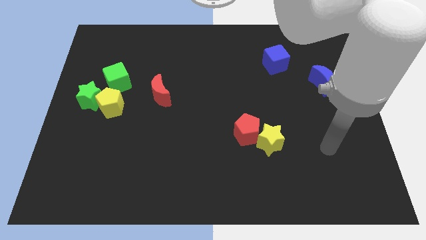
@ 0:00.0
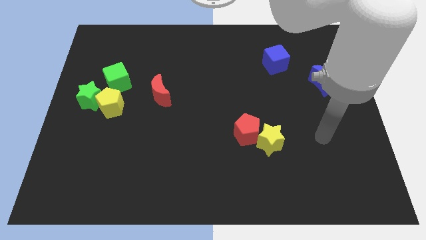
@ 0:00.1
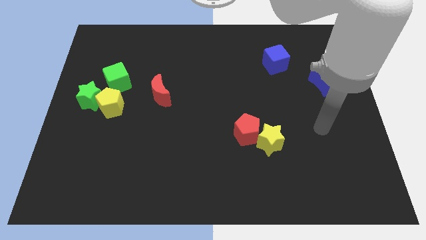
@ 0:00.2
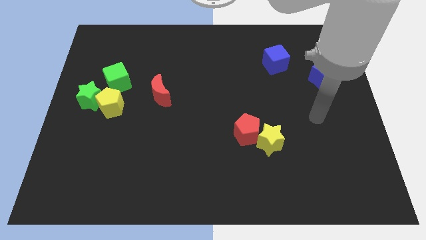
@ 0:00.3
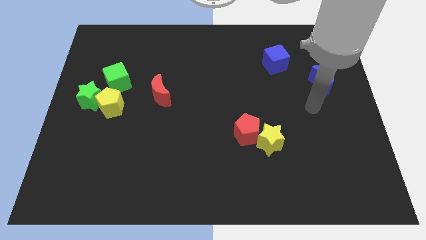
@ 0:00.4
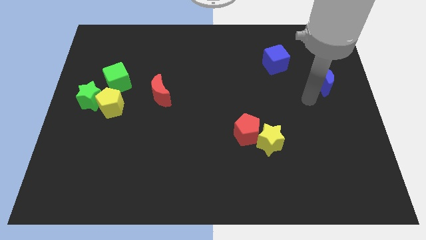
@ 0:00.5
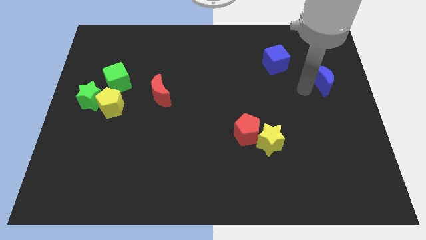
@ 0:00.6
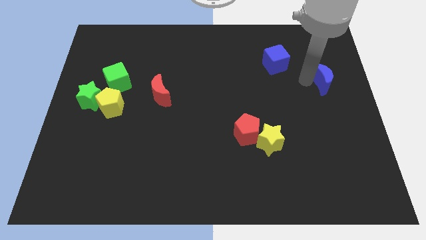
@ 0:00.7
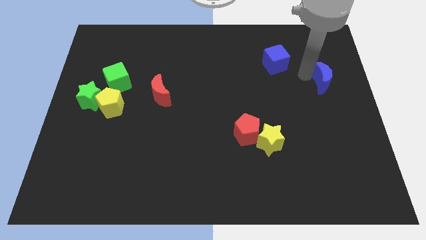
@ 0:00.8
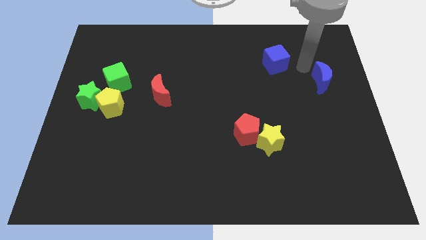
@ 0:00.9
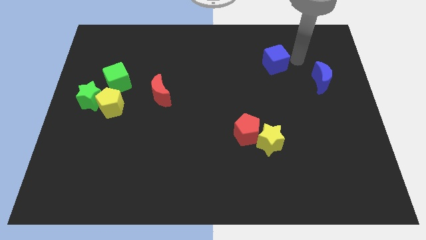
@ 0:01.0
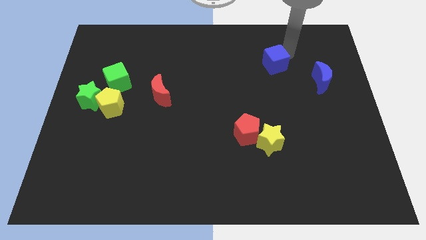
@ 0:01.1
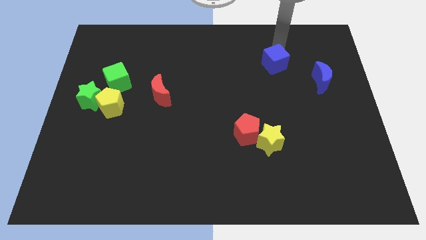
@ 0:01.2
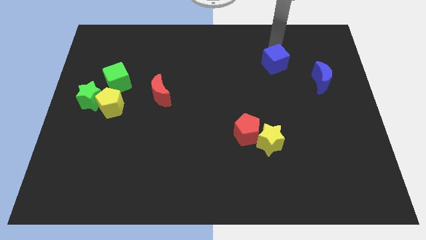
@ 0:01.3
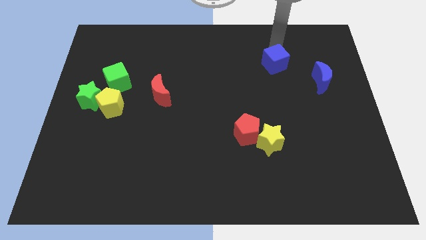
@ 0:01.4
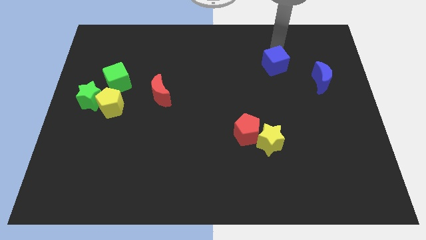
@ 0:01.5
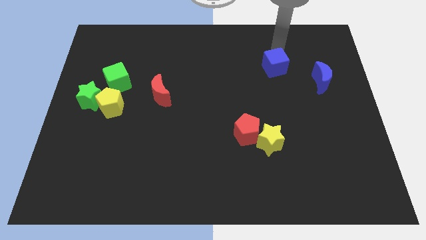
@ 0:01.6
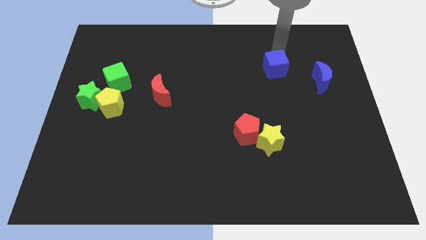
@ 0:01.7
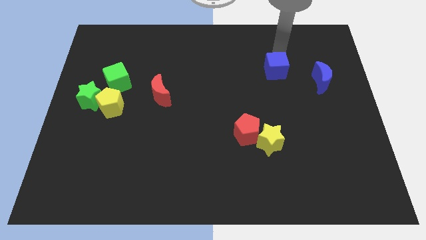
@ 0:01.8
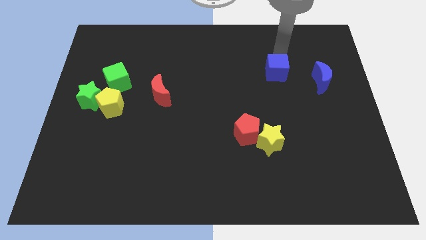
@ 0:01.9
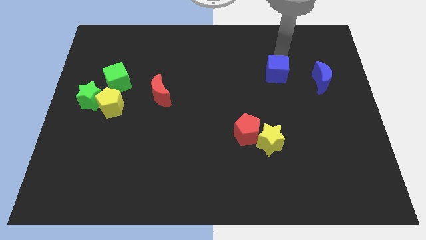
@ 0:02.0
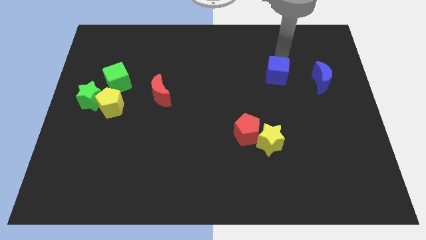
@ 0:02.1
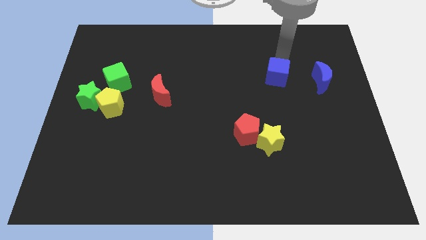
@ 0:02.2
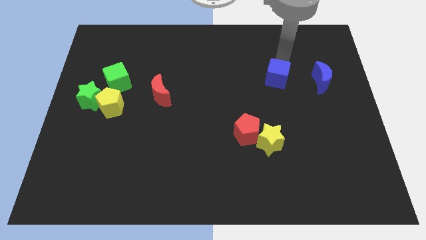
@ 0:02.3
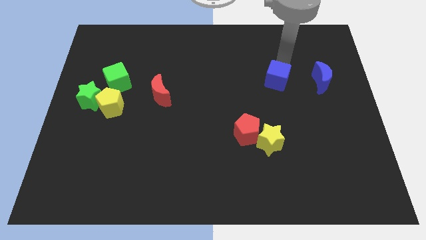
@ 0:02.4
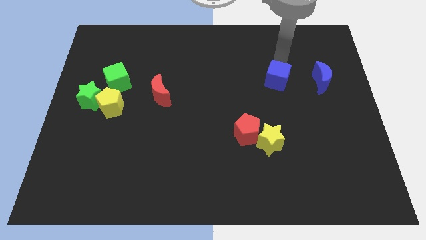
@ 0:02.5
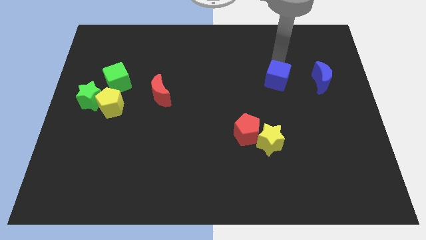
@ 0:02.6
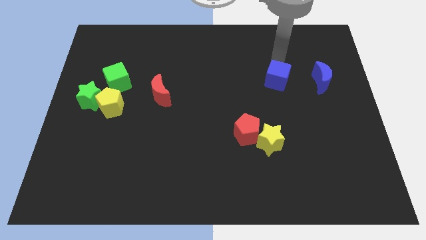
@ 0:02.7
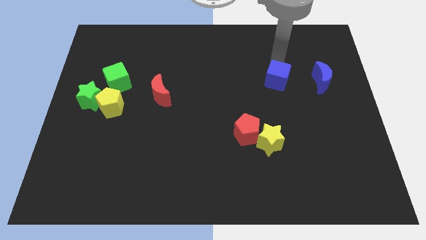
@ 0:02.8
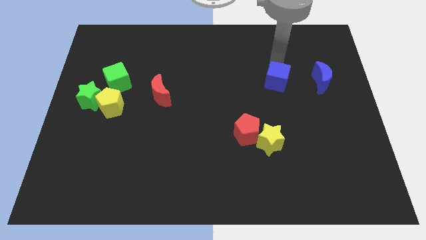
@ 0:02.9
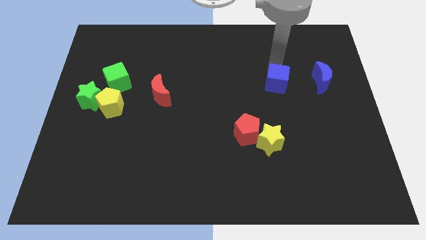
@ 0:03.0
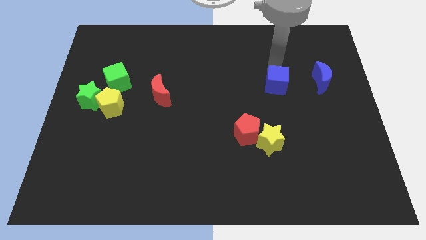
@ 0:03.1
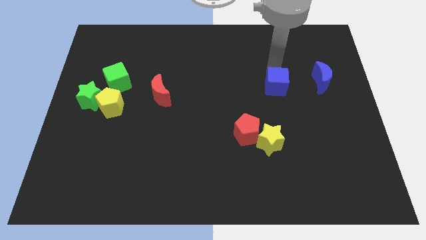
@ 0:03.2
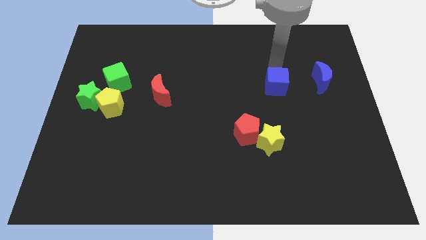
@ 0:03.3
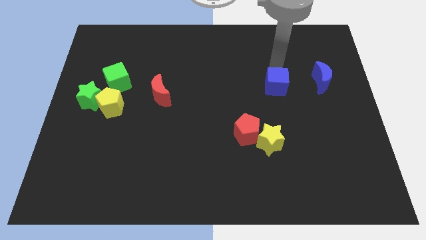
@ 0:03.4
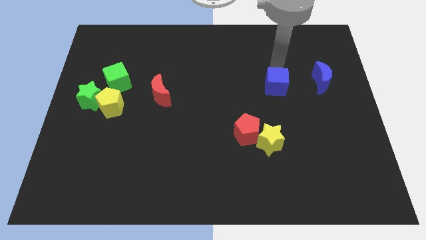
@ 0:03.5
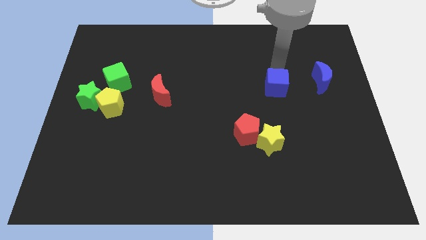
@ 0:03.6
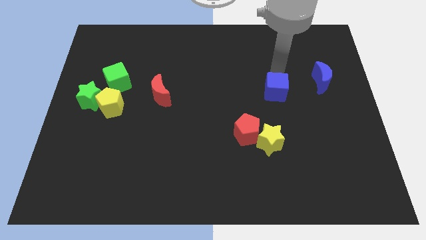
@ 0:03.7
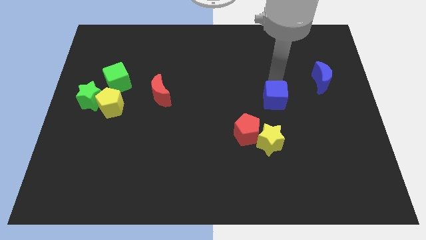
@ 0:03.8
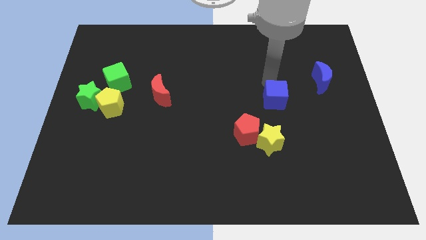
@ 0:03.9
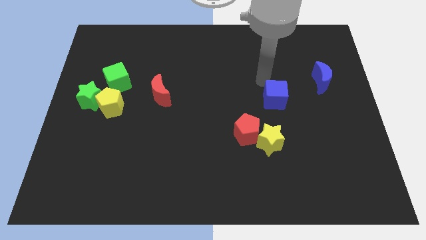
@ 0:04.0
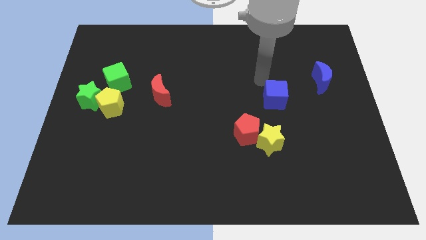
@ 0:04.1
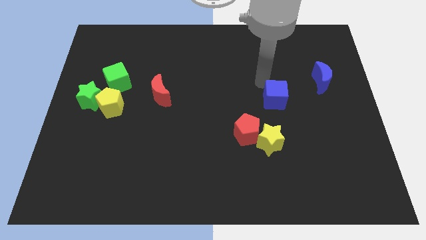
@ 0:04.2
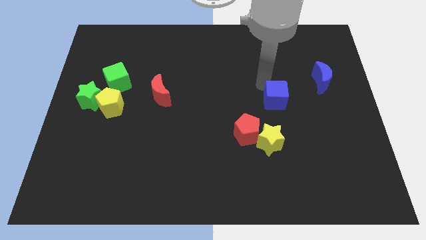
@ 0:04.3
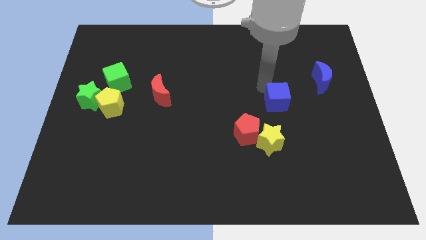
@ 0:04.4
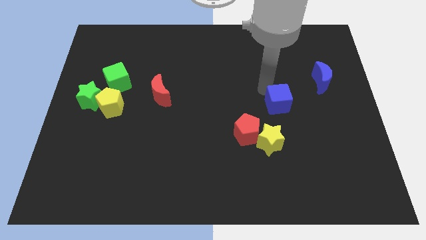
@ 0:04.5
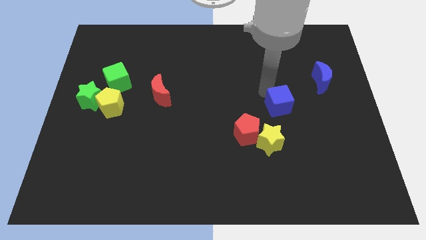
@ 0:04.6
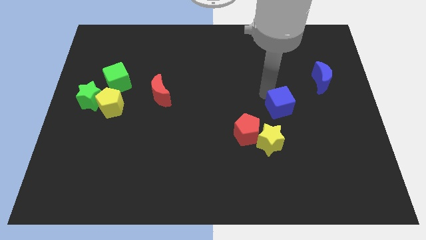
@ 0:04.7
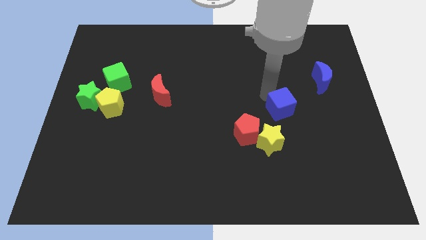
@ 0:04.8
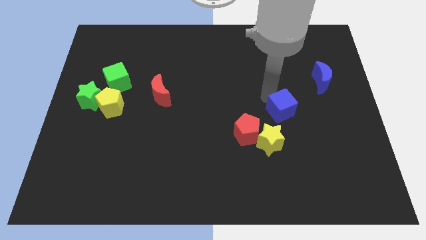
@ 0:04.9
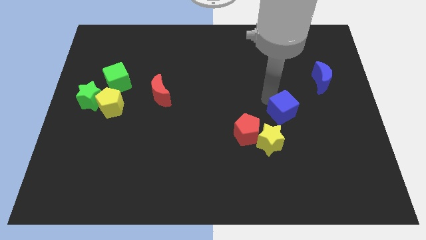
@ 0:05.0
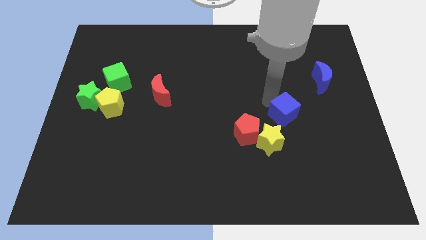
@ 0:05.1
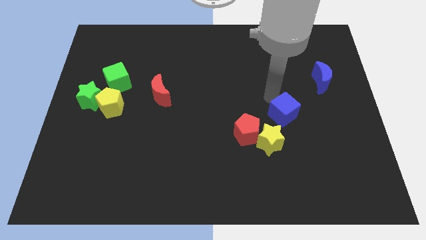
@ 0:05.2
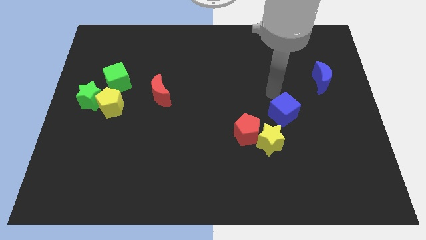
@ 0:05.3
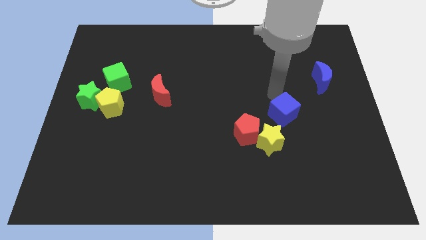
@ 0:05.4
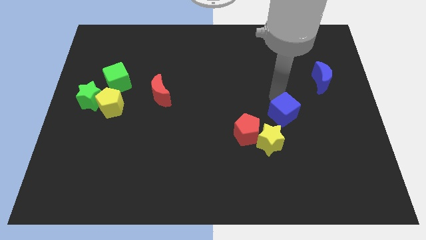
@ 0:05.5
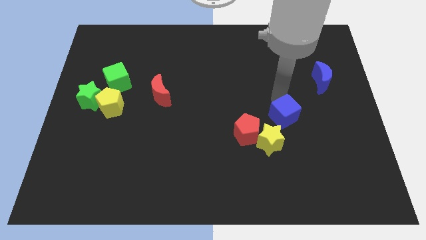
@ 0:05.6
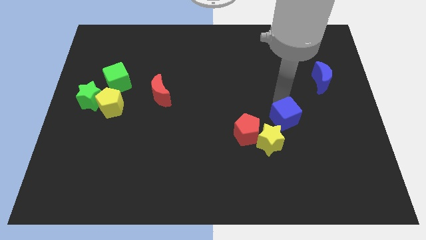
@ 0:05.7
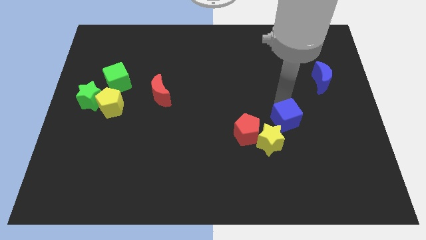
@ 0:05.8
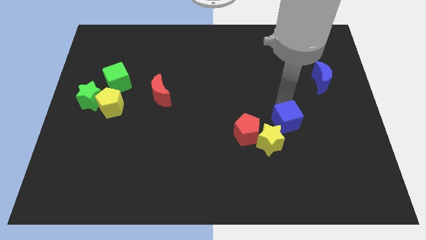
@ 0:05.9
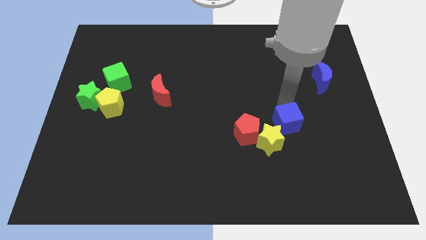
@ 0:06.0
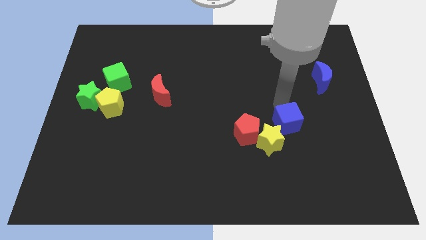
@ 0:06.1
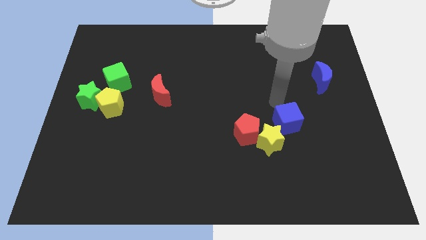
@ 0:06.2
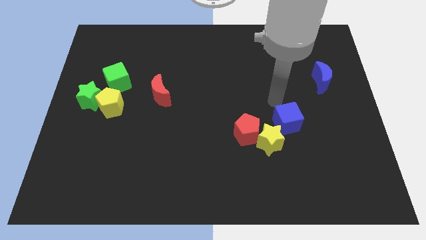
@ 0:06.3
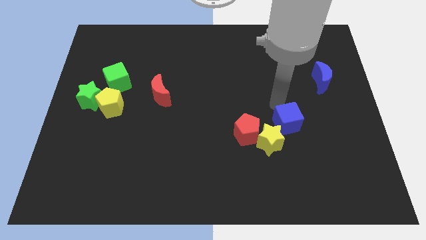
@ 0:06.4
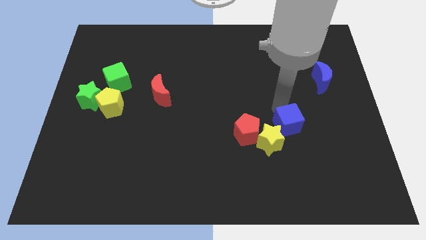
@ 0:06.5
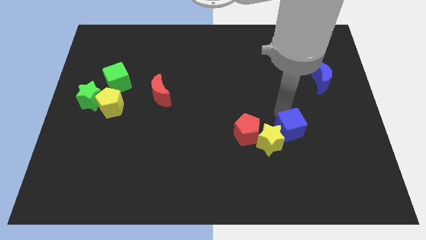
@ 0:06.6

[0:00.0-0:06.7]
slide the blue cube down

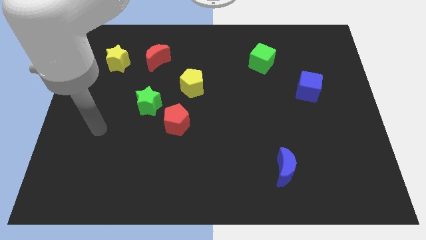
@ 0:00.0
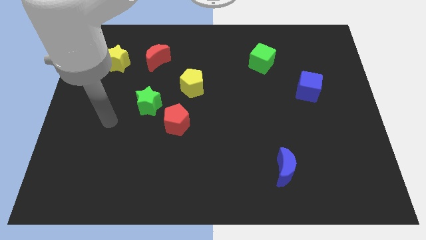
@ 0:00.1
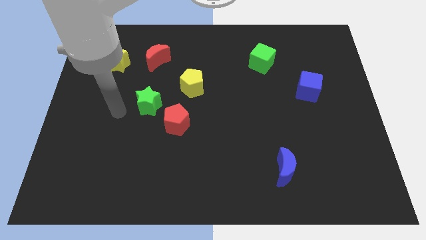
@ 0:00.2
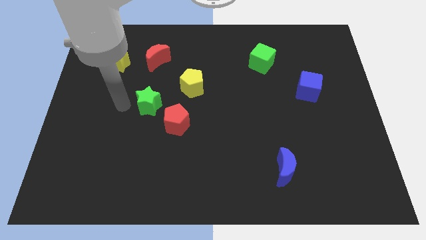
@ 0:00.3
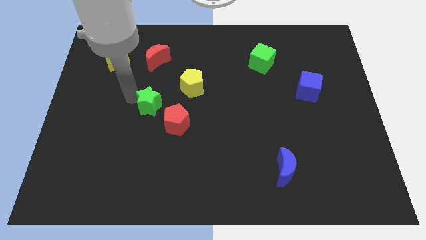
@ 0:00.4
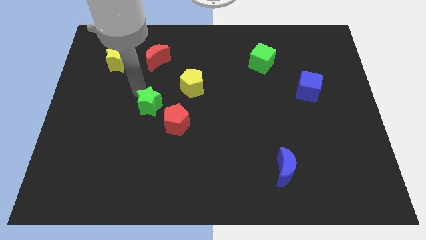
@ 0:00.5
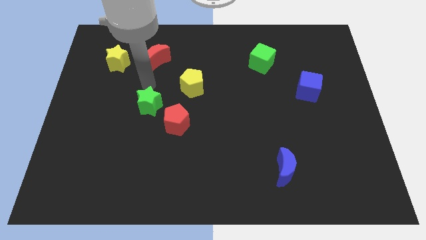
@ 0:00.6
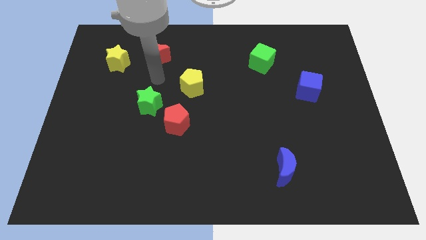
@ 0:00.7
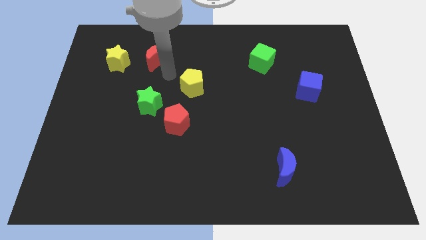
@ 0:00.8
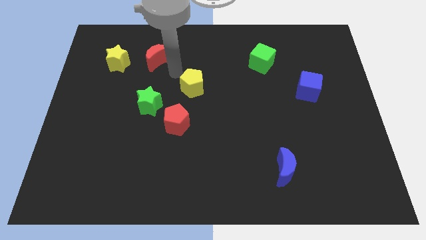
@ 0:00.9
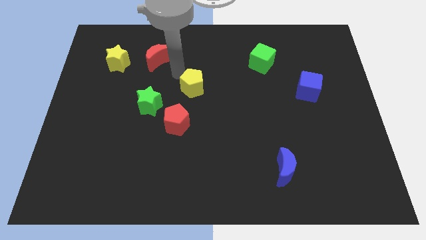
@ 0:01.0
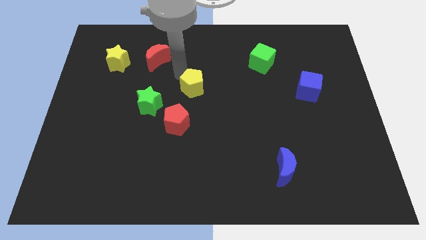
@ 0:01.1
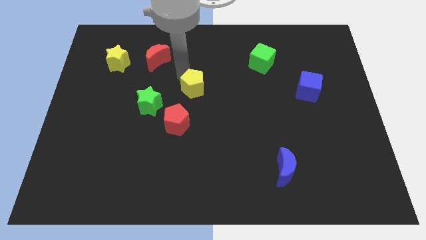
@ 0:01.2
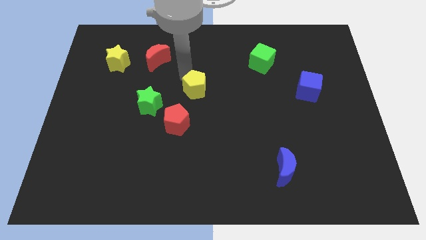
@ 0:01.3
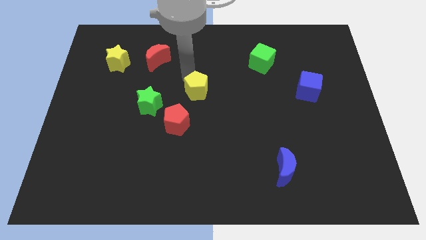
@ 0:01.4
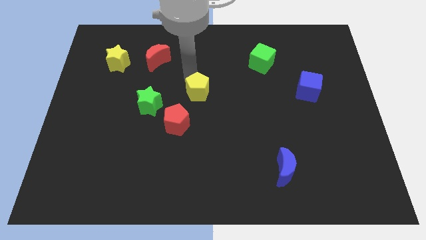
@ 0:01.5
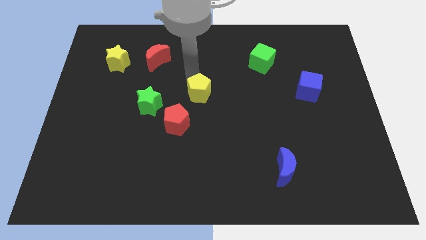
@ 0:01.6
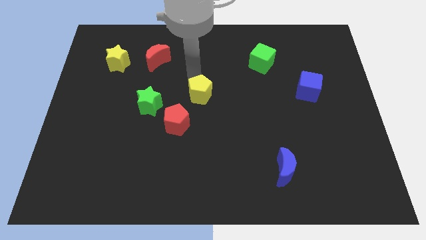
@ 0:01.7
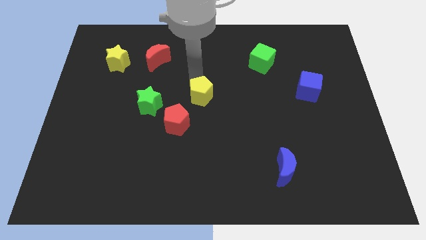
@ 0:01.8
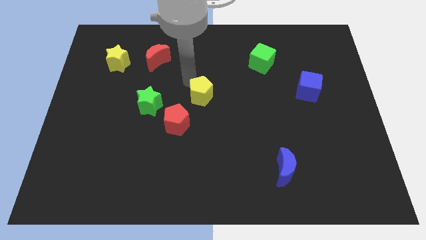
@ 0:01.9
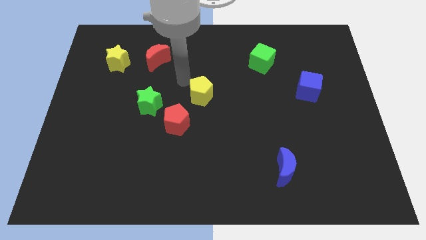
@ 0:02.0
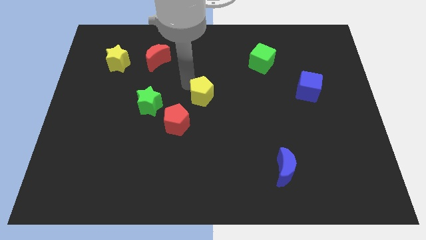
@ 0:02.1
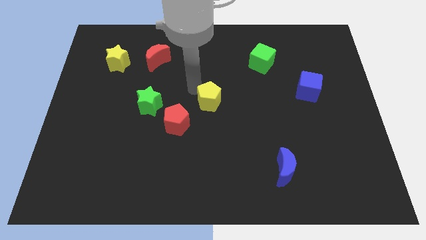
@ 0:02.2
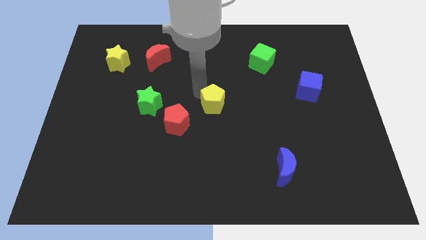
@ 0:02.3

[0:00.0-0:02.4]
slide the yellow pentagon slightly downwards and then to the right
